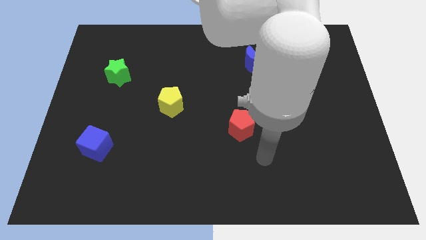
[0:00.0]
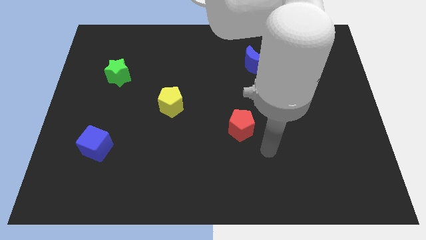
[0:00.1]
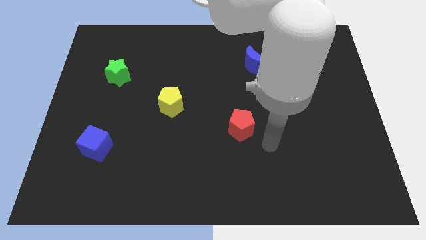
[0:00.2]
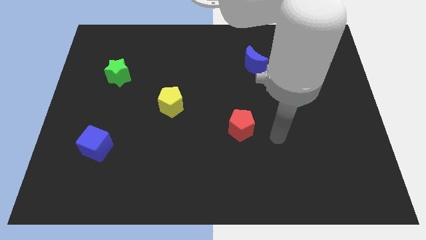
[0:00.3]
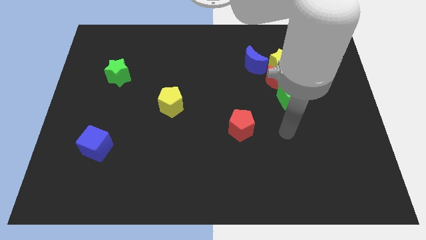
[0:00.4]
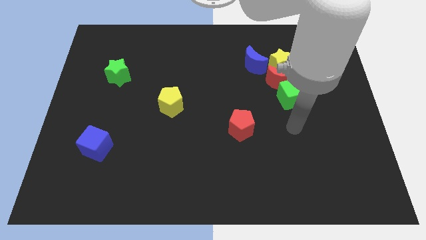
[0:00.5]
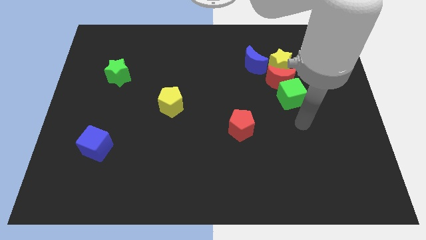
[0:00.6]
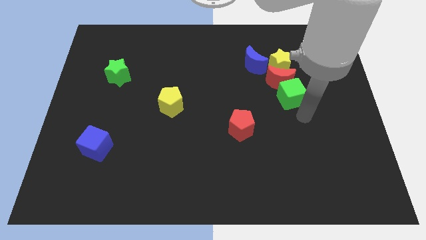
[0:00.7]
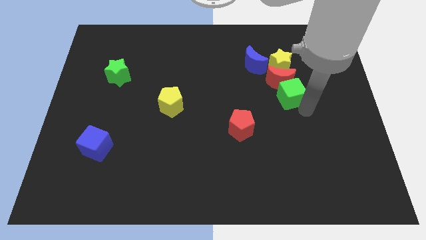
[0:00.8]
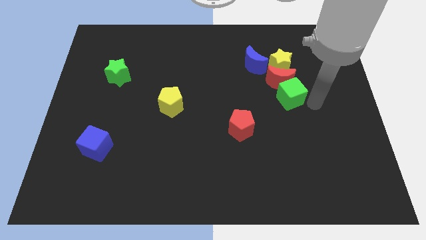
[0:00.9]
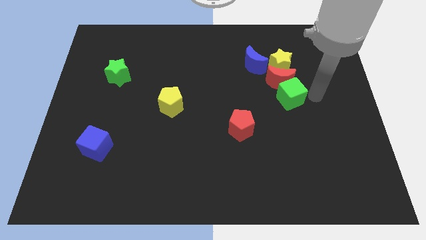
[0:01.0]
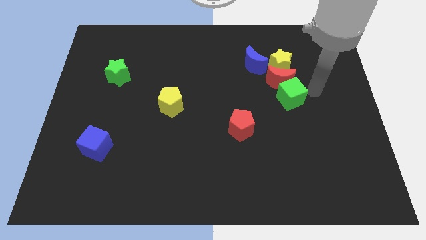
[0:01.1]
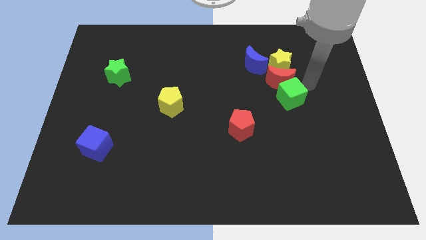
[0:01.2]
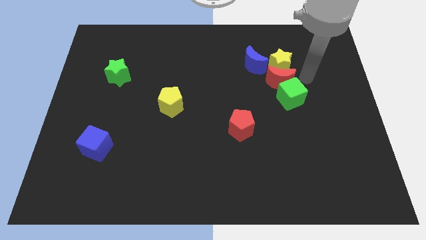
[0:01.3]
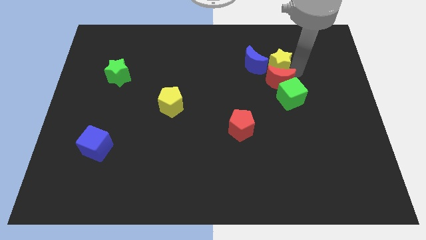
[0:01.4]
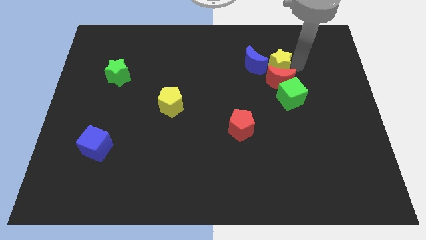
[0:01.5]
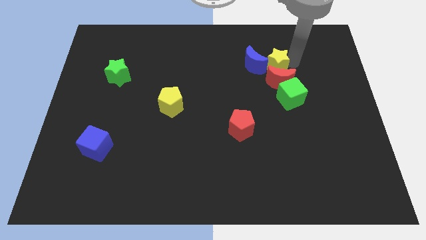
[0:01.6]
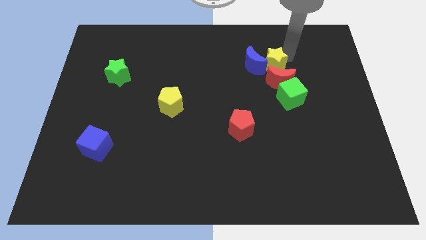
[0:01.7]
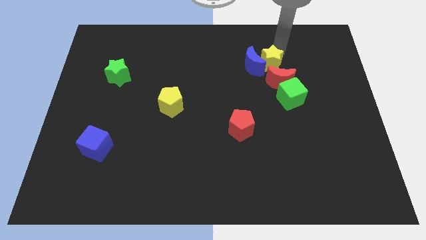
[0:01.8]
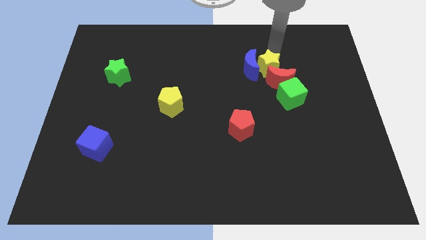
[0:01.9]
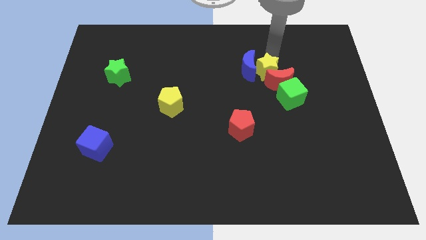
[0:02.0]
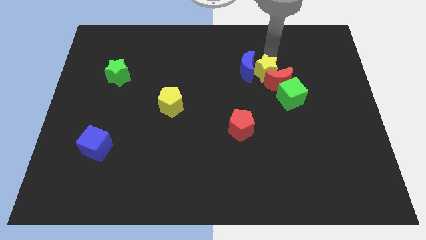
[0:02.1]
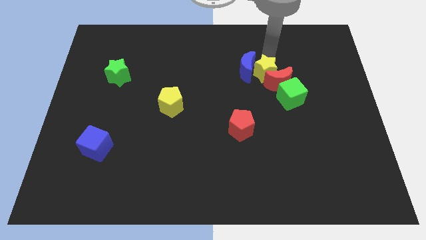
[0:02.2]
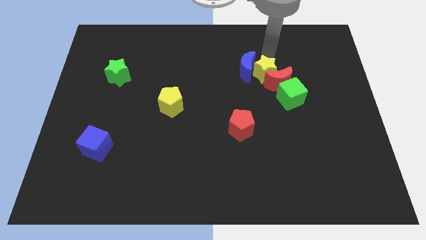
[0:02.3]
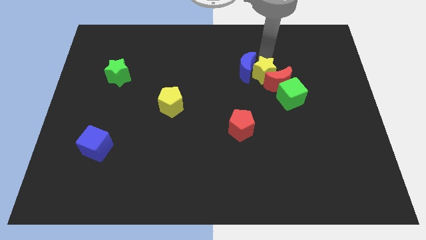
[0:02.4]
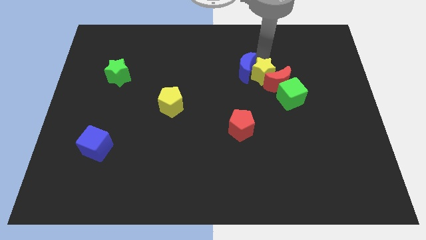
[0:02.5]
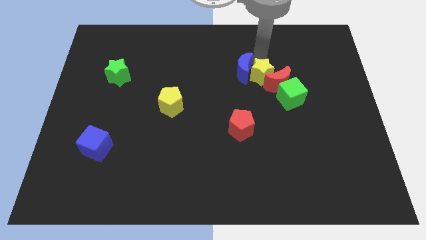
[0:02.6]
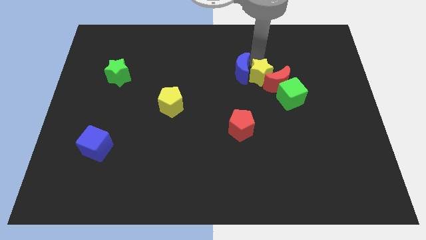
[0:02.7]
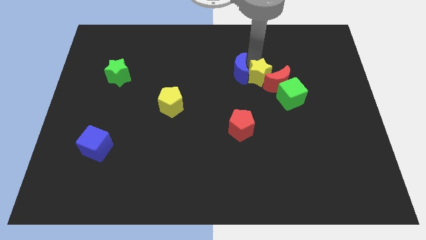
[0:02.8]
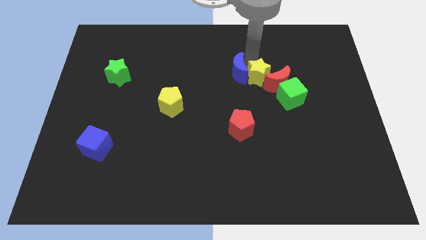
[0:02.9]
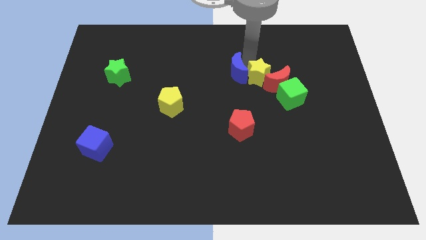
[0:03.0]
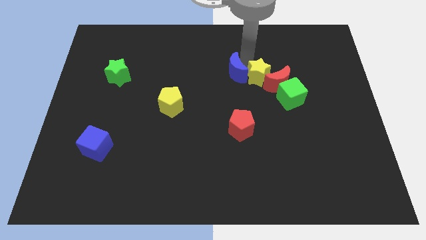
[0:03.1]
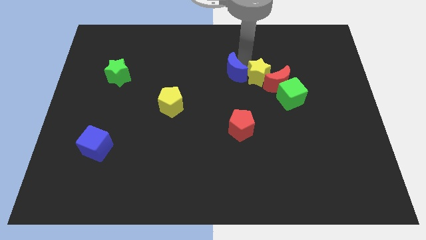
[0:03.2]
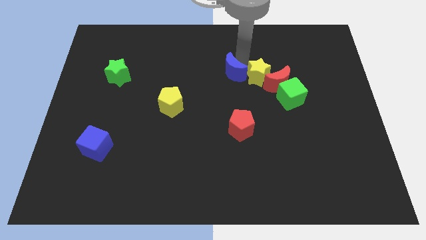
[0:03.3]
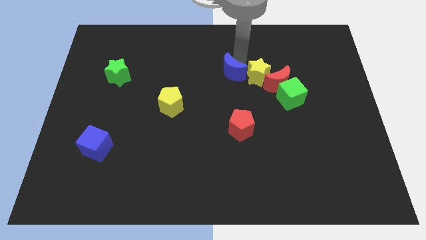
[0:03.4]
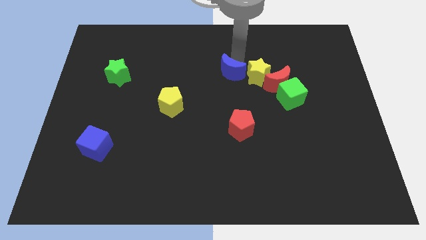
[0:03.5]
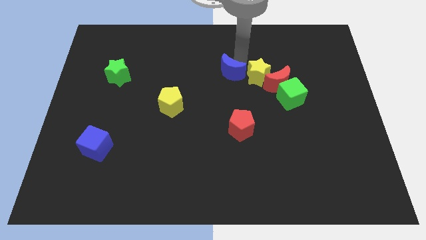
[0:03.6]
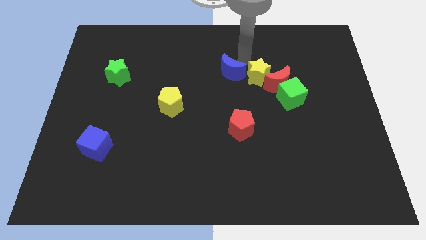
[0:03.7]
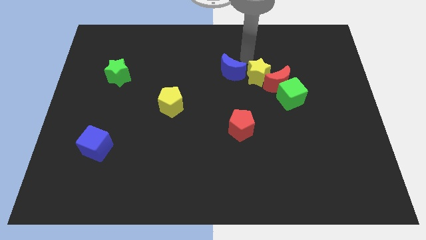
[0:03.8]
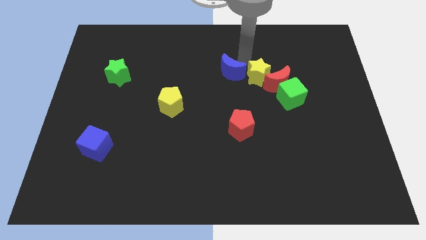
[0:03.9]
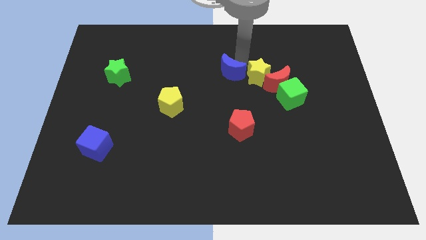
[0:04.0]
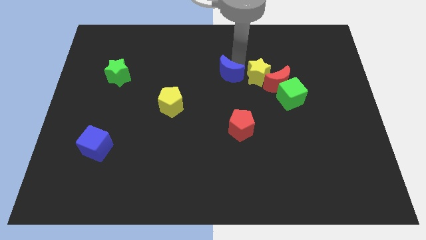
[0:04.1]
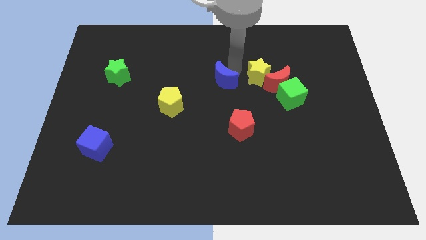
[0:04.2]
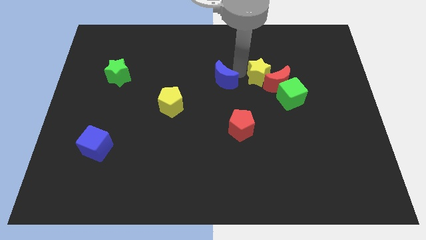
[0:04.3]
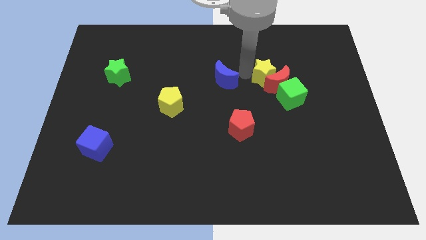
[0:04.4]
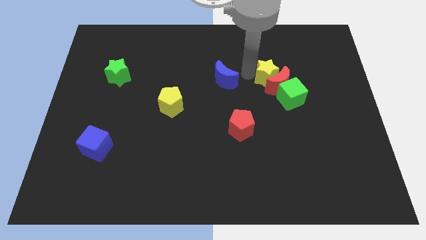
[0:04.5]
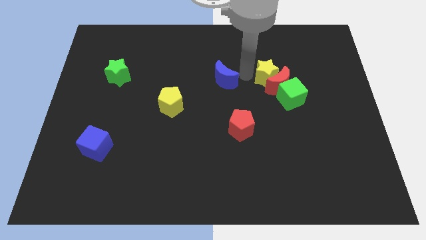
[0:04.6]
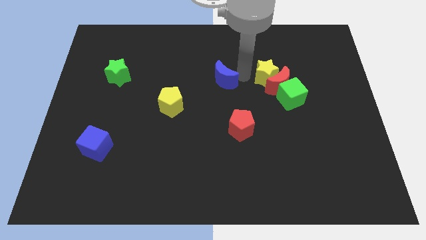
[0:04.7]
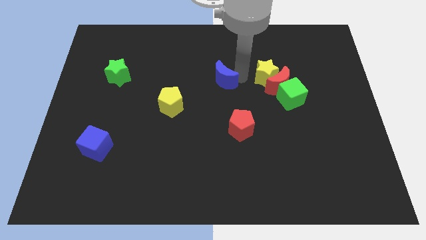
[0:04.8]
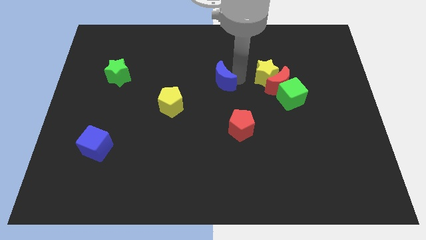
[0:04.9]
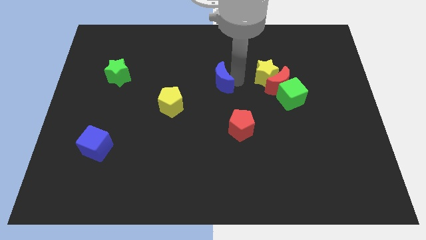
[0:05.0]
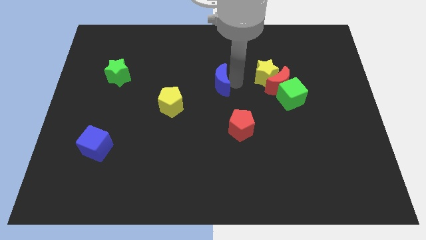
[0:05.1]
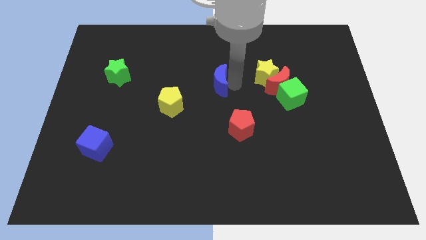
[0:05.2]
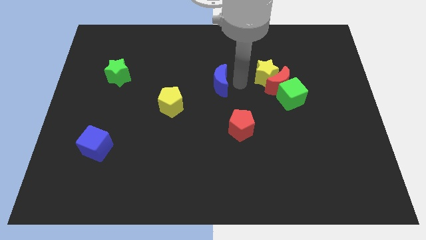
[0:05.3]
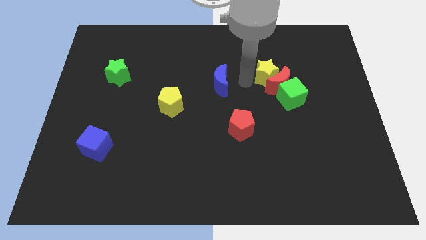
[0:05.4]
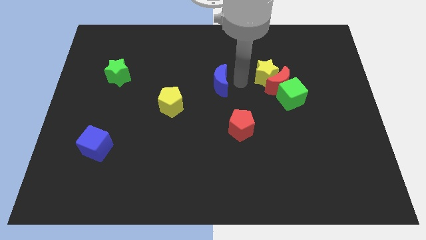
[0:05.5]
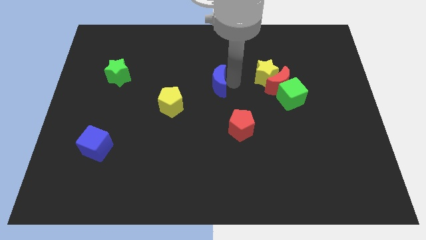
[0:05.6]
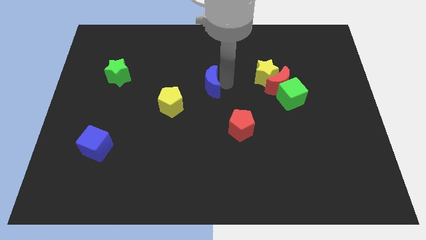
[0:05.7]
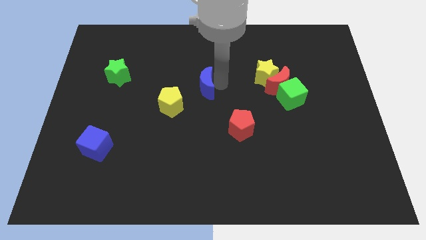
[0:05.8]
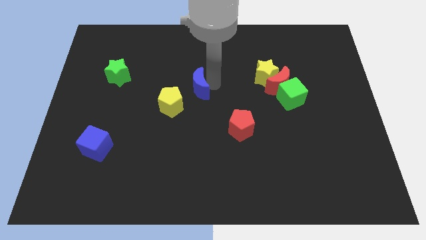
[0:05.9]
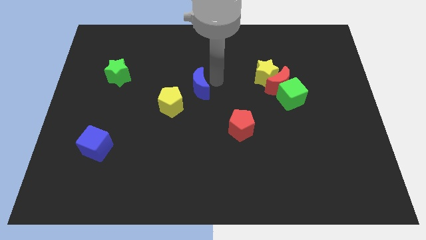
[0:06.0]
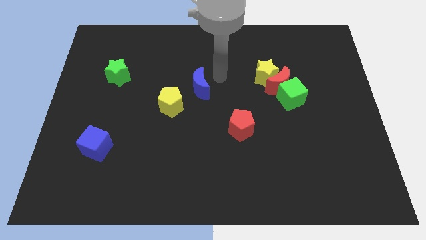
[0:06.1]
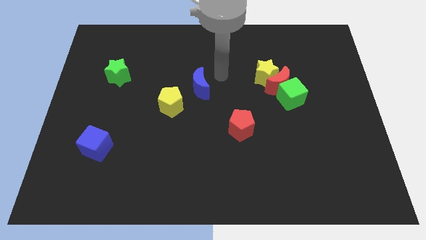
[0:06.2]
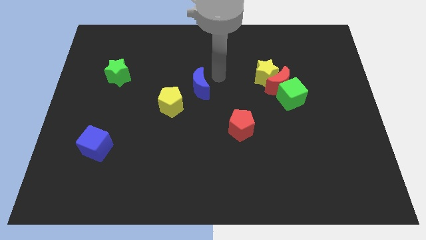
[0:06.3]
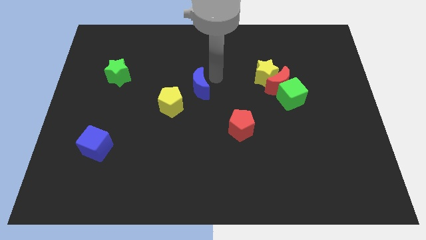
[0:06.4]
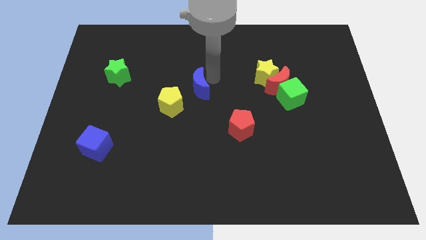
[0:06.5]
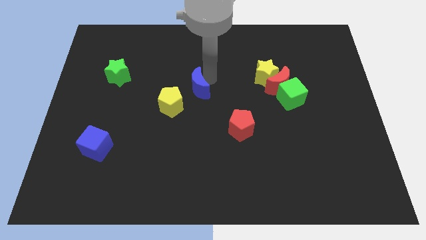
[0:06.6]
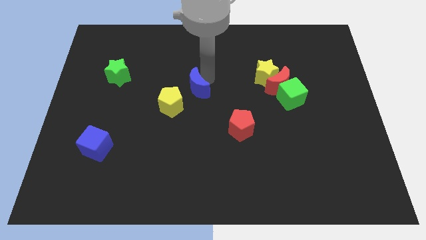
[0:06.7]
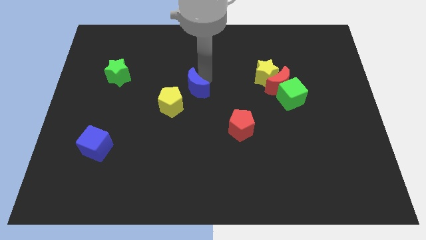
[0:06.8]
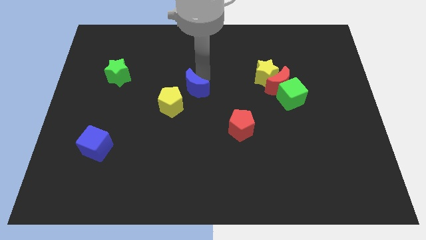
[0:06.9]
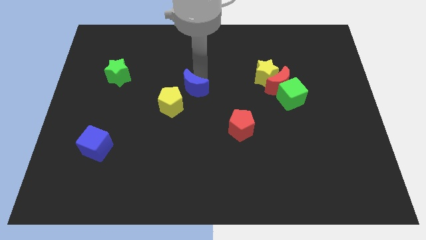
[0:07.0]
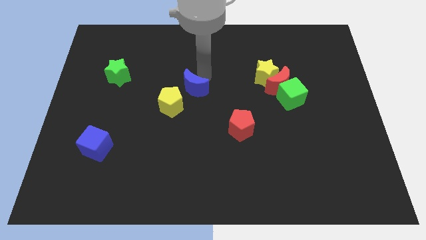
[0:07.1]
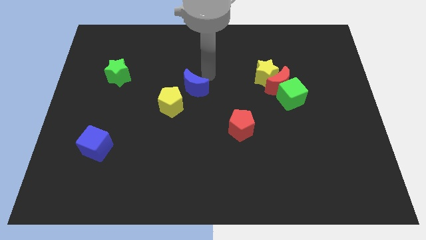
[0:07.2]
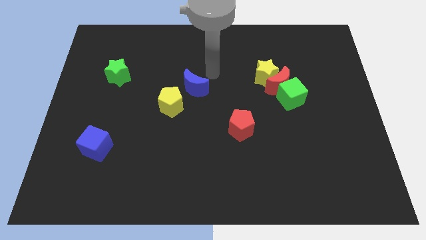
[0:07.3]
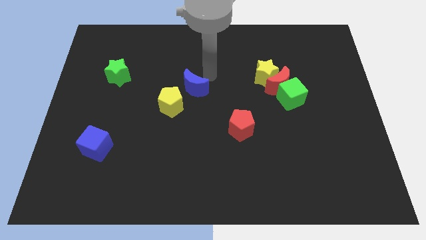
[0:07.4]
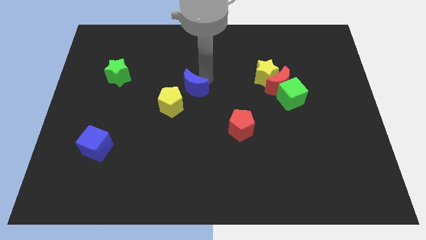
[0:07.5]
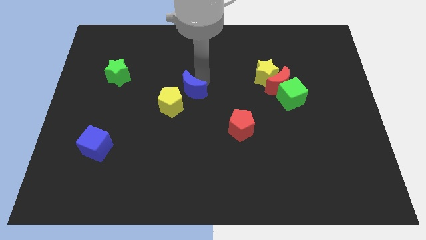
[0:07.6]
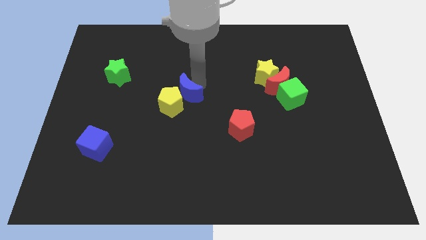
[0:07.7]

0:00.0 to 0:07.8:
move the blue moon to the yellow pentagon

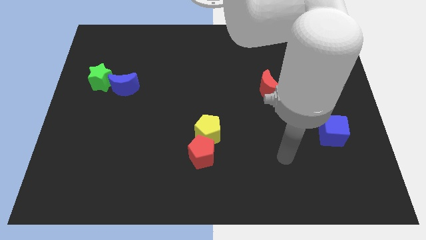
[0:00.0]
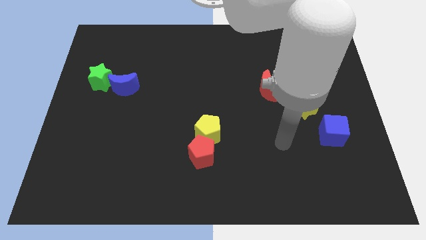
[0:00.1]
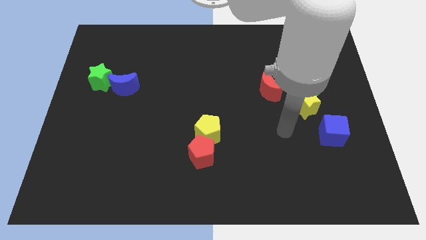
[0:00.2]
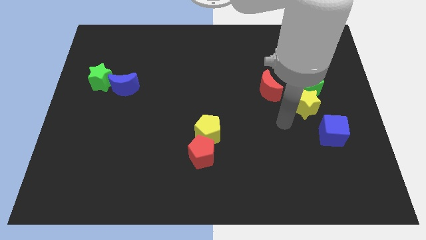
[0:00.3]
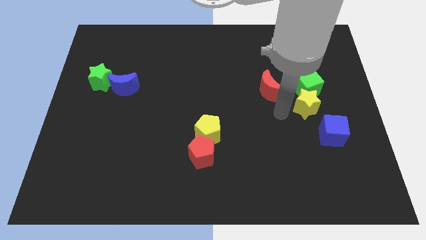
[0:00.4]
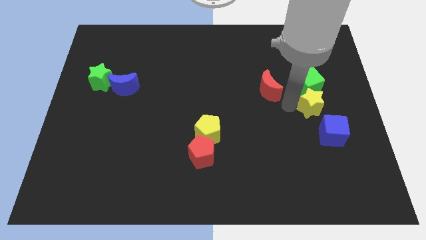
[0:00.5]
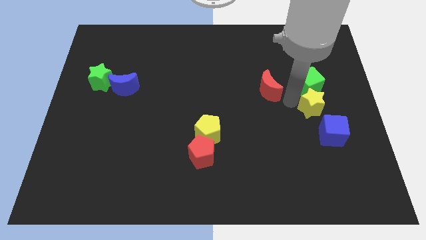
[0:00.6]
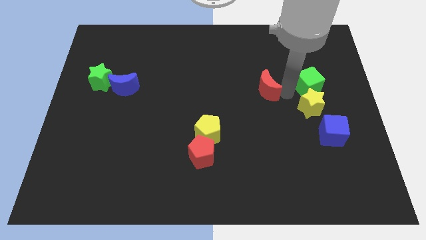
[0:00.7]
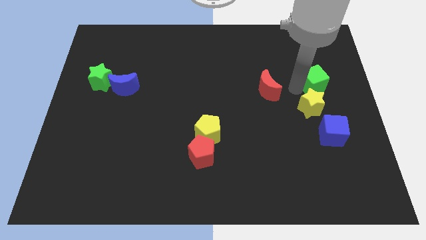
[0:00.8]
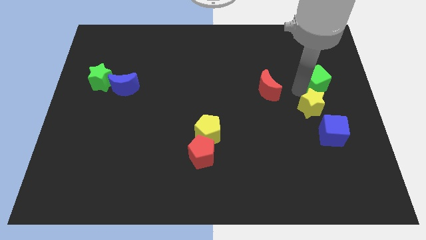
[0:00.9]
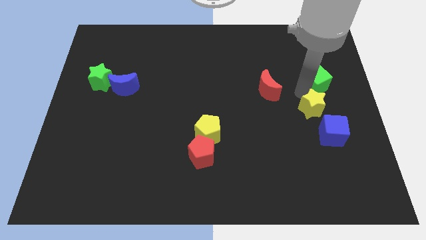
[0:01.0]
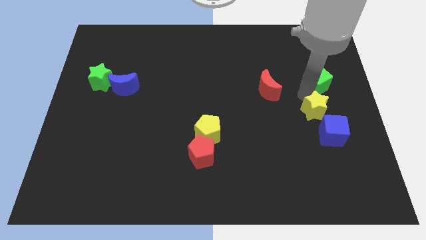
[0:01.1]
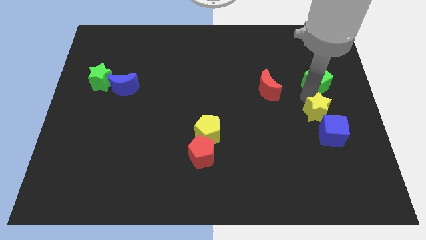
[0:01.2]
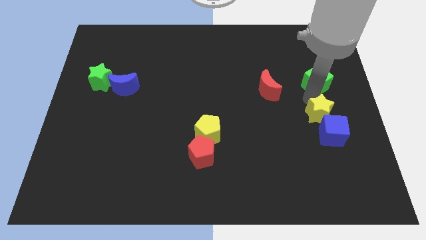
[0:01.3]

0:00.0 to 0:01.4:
move the yellow star close to the blue cube
